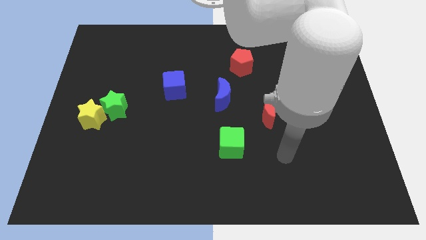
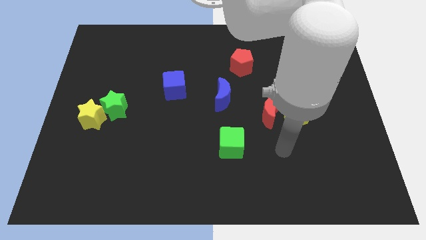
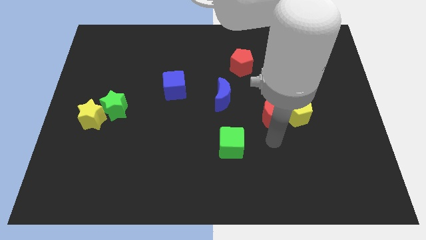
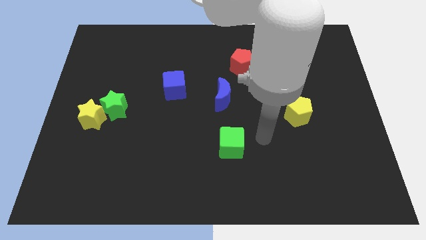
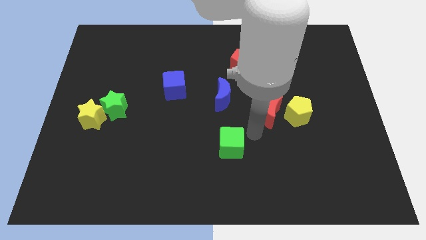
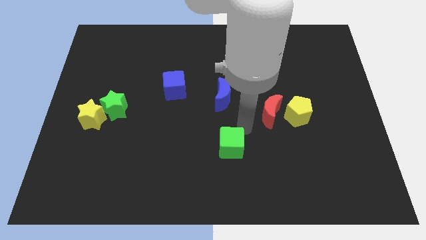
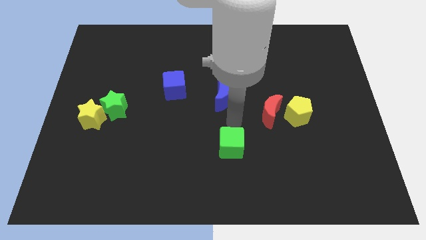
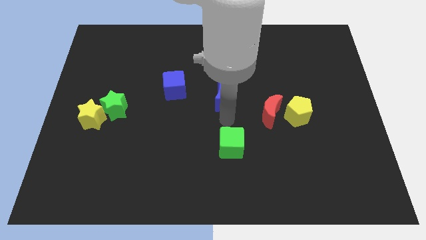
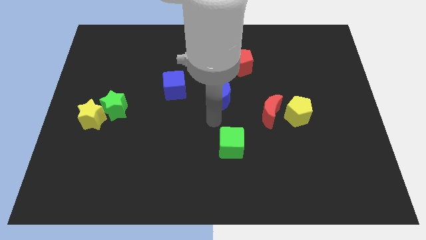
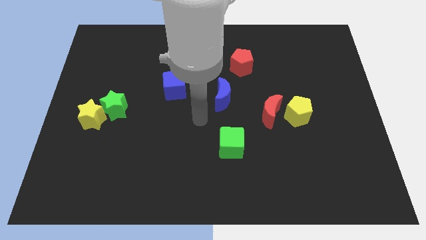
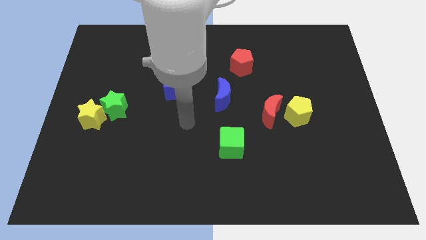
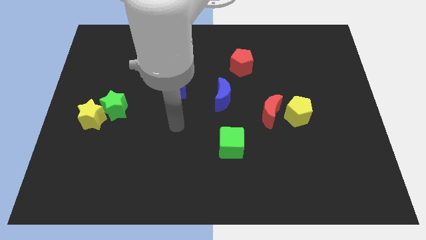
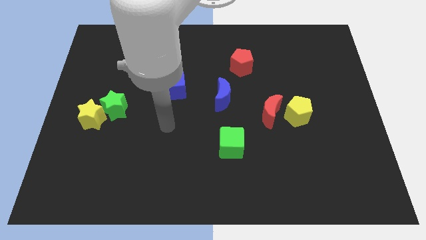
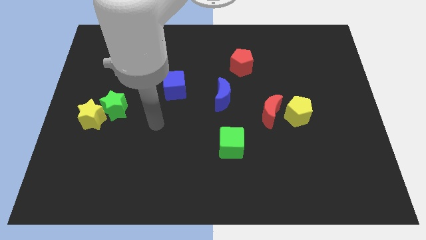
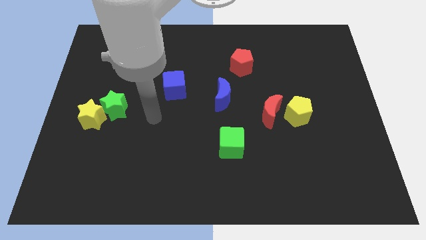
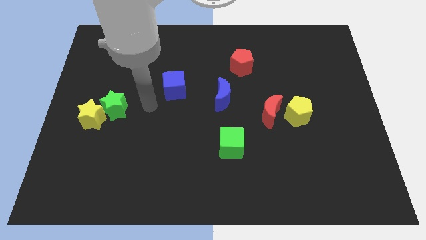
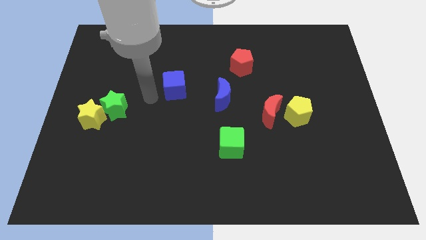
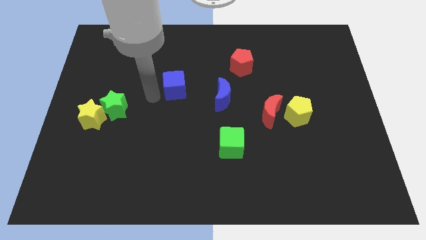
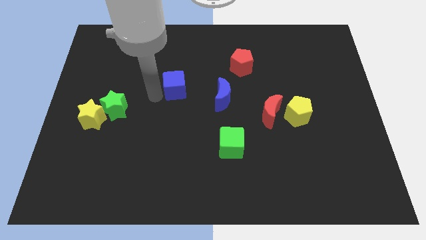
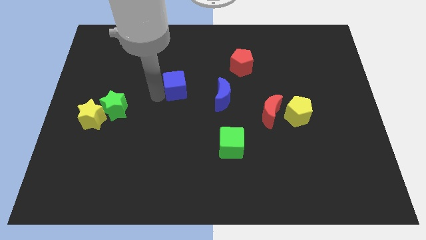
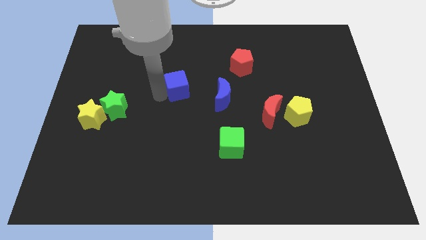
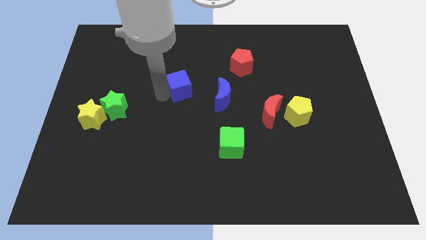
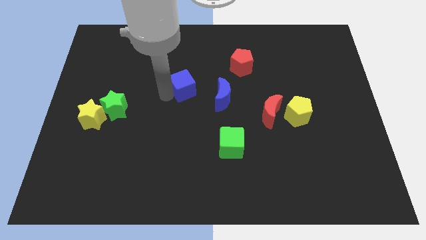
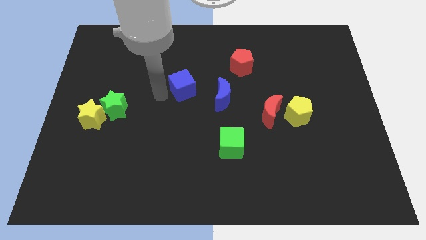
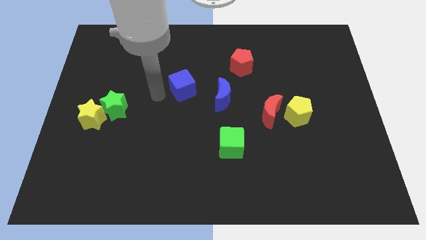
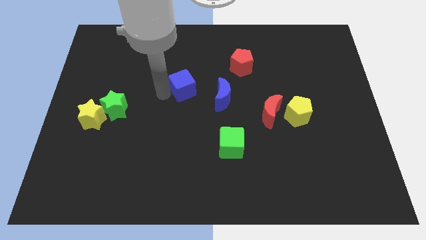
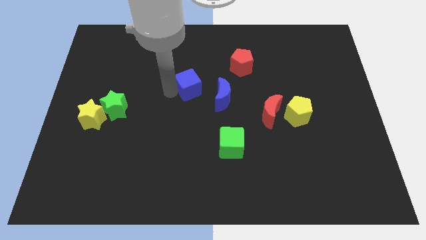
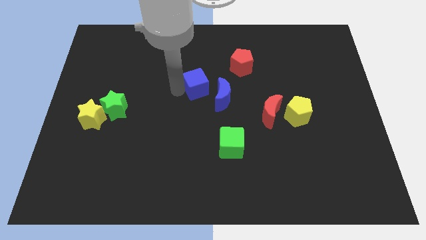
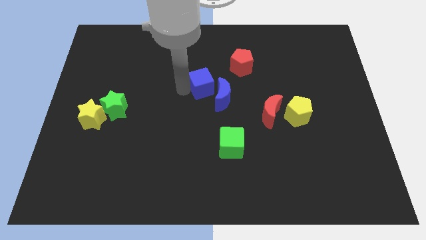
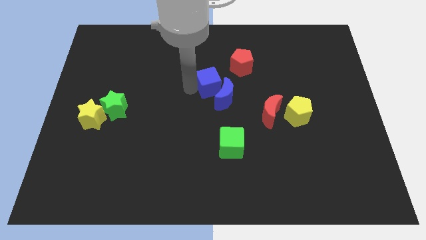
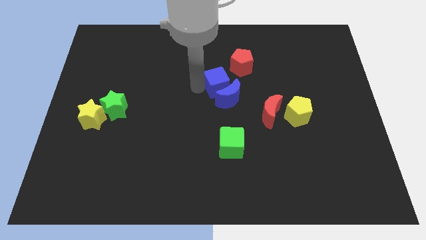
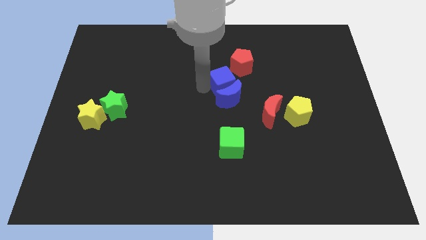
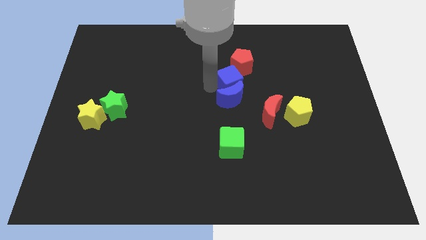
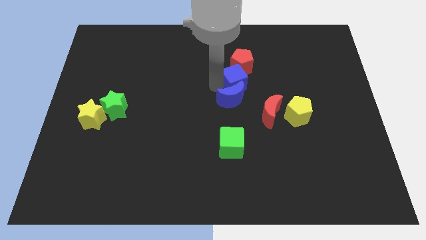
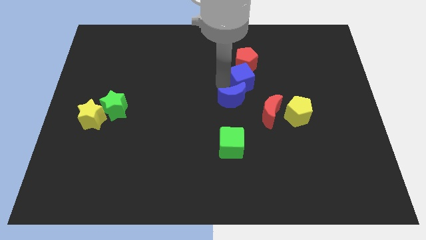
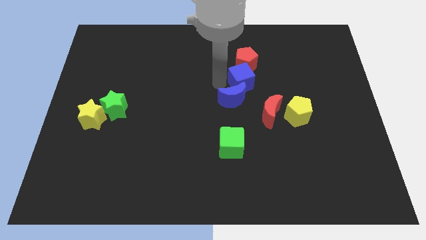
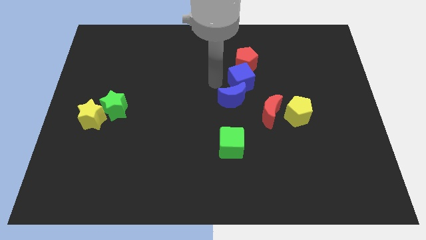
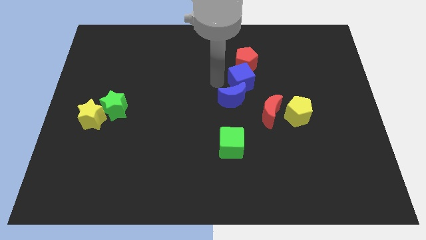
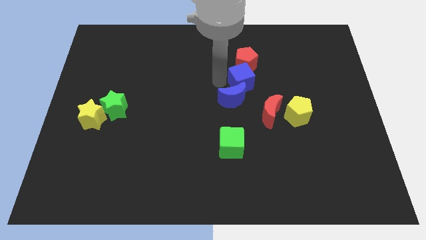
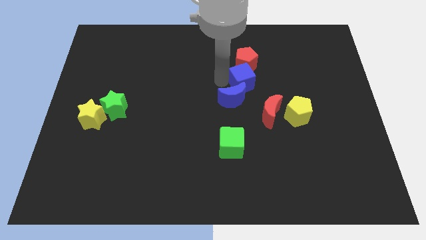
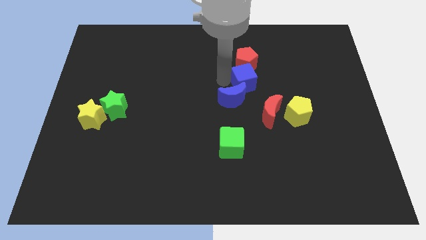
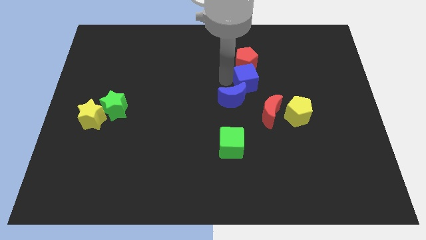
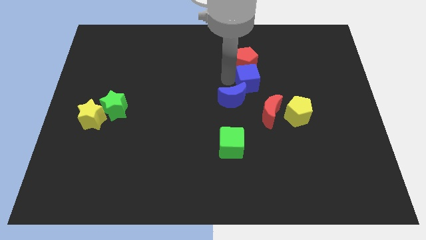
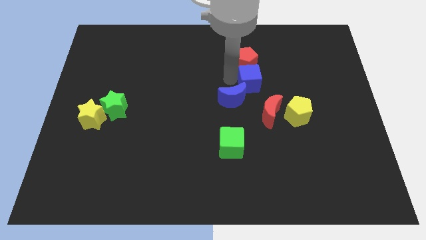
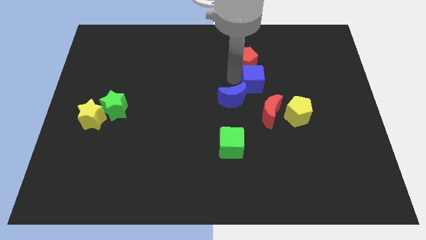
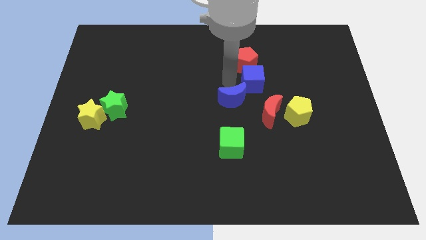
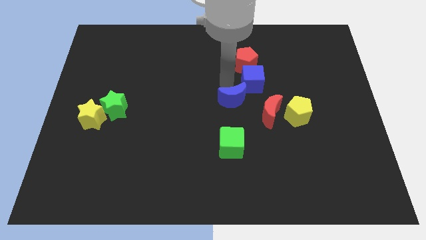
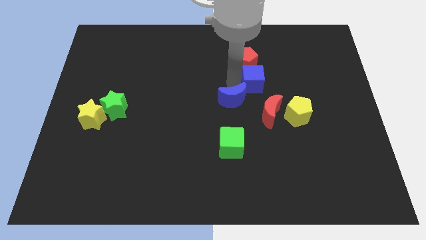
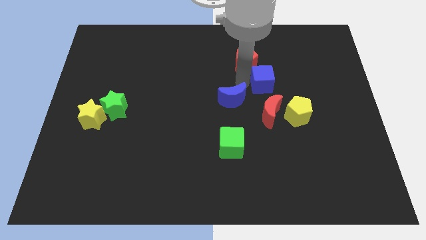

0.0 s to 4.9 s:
slide the blue cube to the right

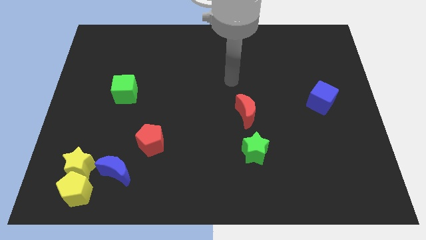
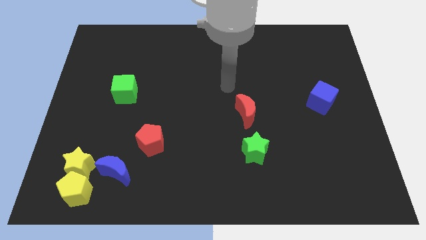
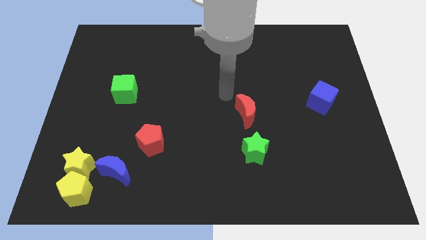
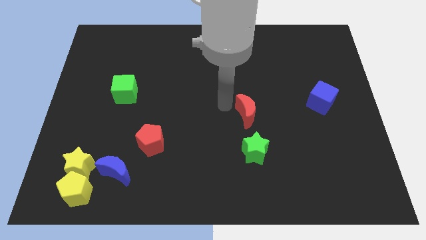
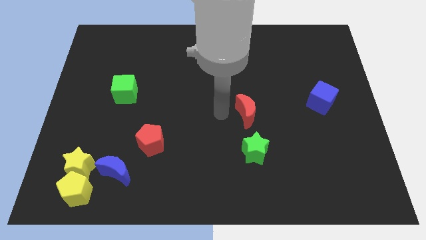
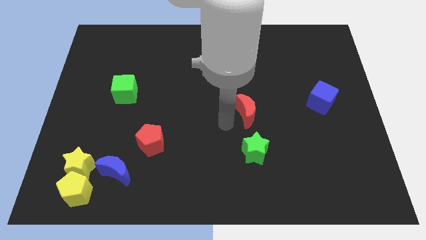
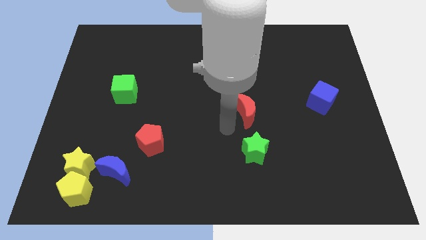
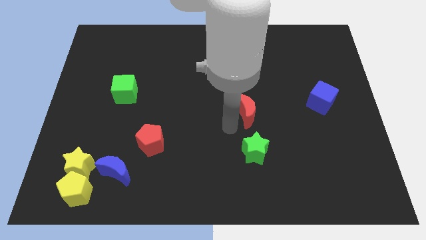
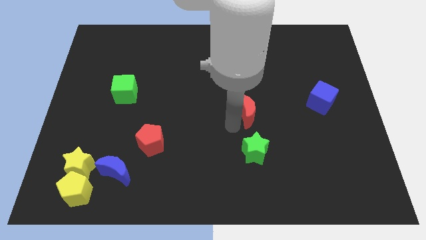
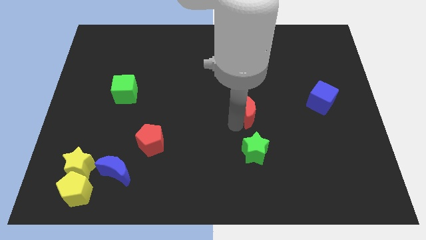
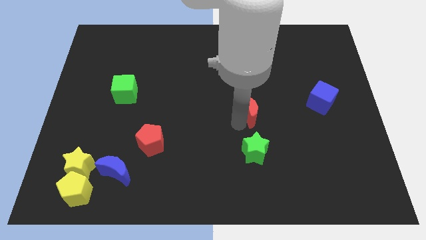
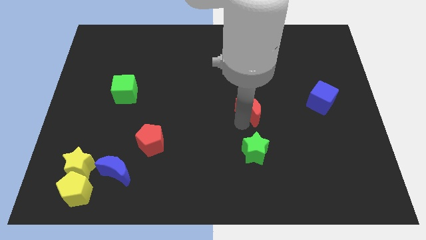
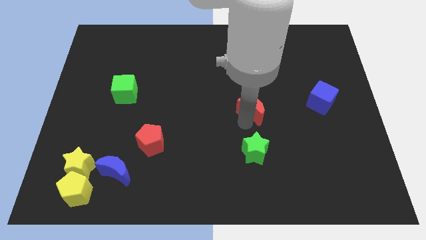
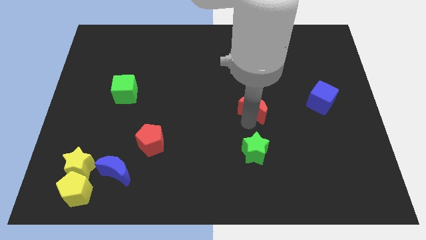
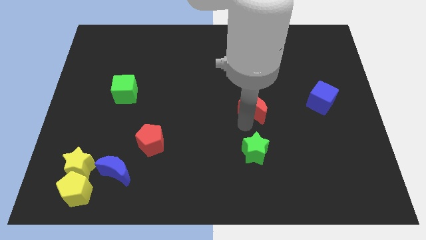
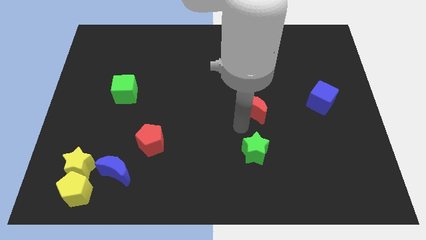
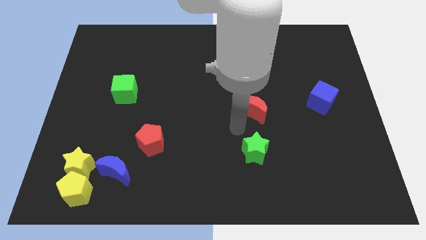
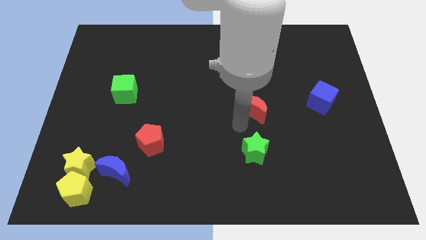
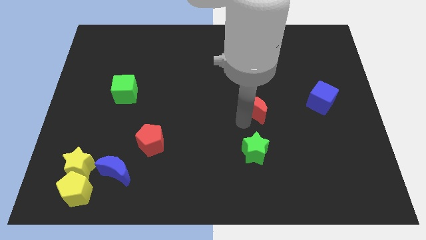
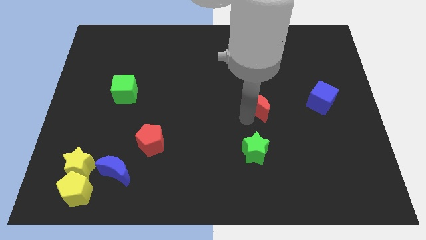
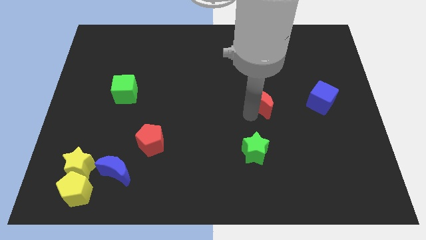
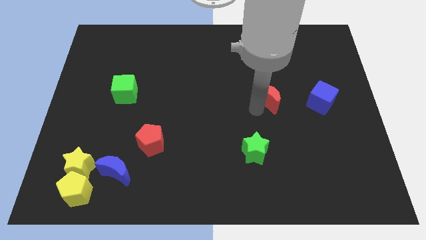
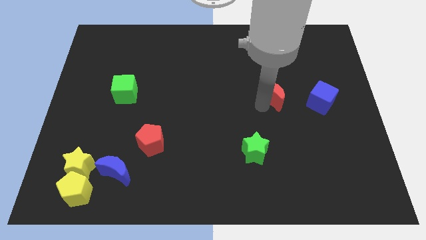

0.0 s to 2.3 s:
move the red moon a little bit up and to the right

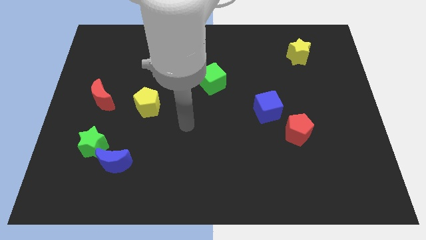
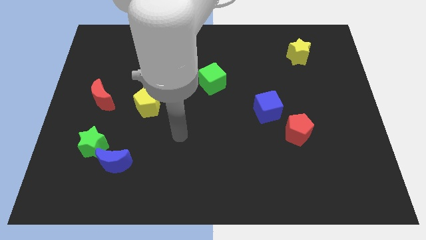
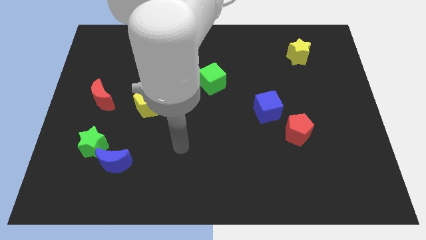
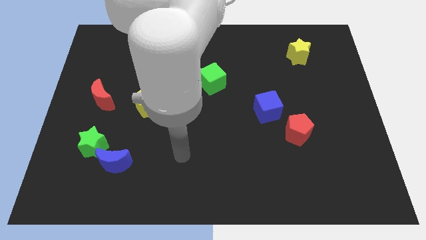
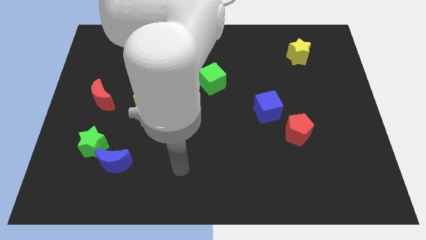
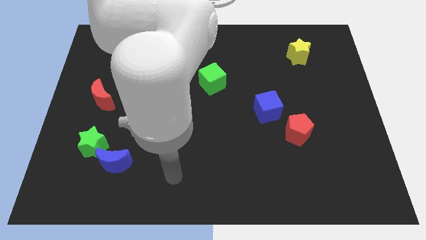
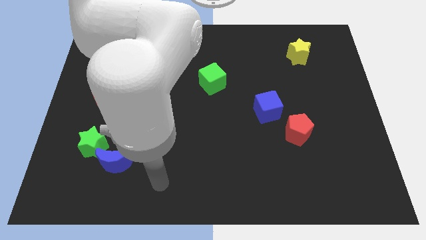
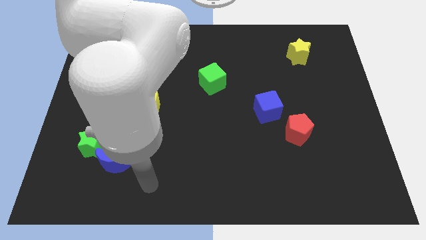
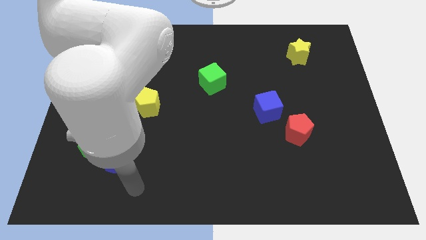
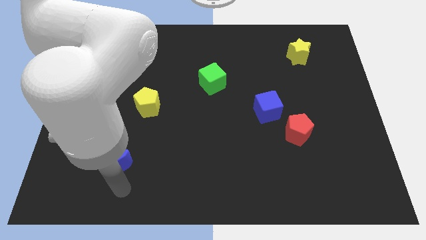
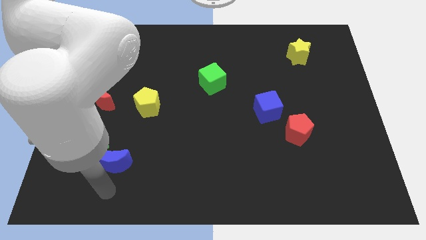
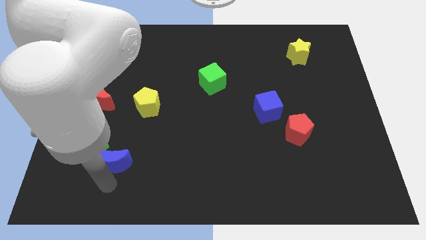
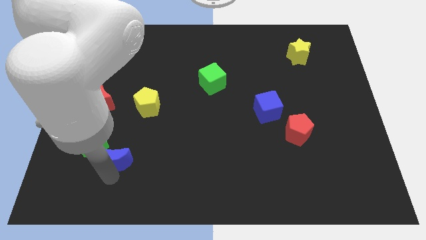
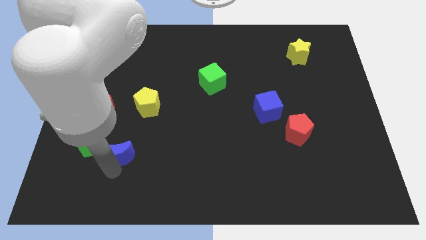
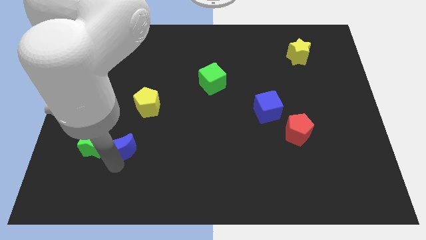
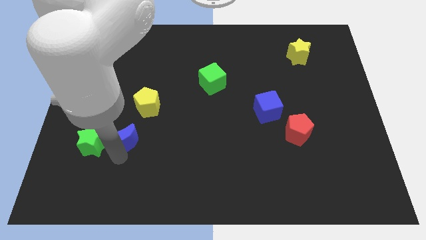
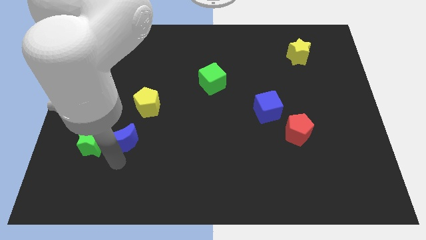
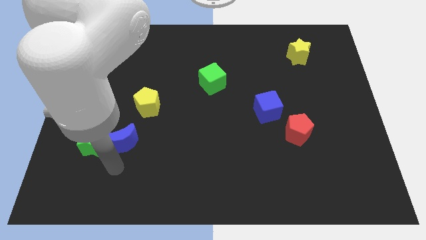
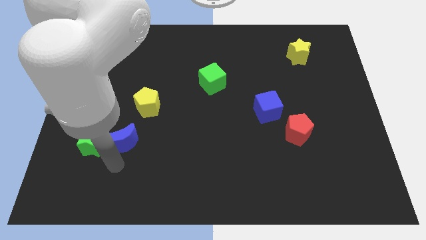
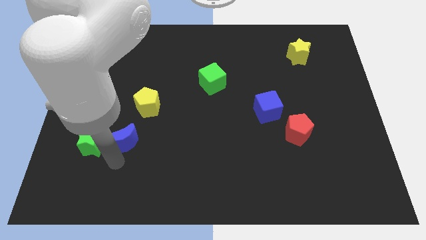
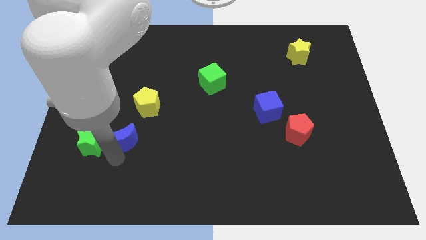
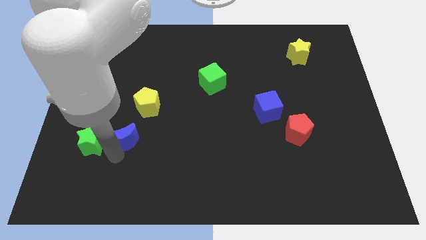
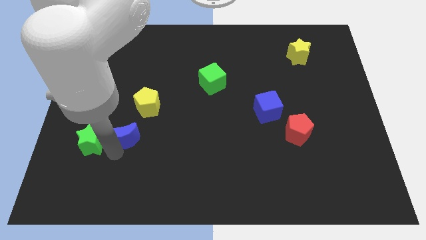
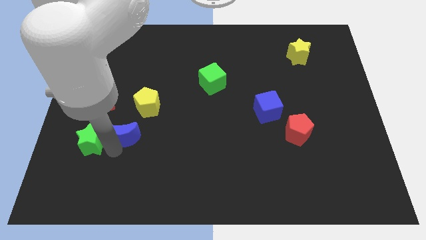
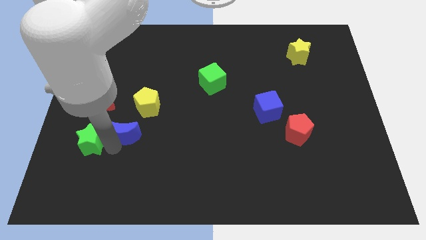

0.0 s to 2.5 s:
slightly slide the blue moon up
